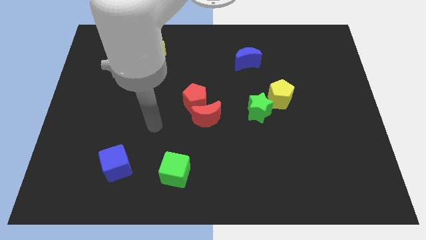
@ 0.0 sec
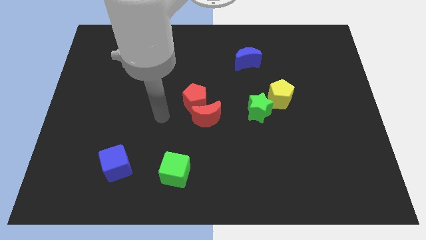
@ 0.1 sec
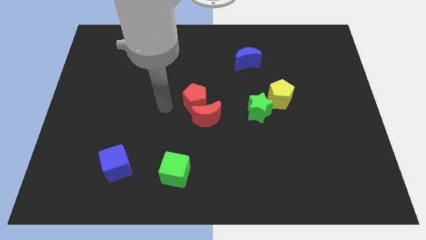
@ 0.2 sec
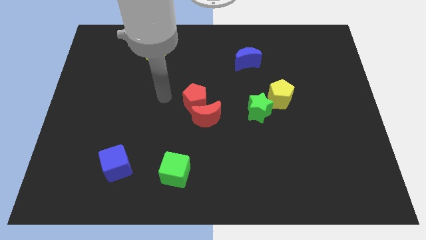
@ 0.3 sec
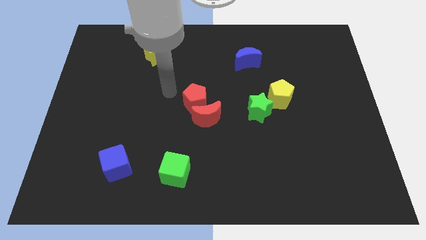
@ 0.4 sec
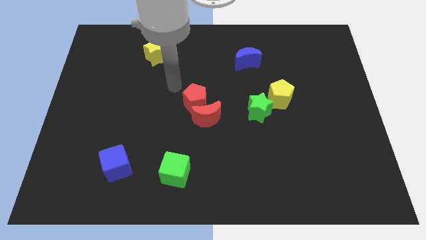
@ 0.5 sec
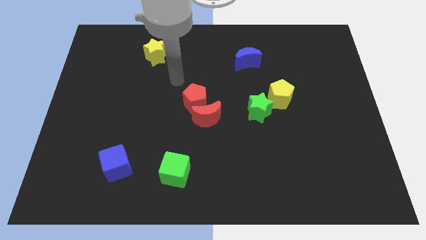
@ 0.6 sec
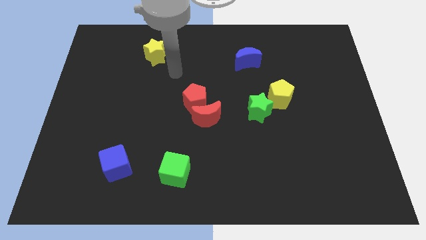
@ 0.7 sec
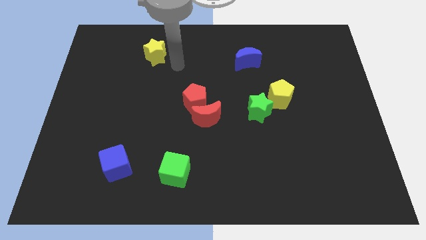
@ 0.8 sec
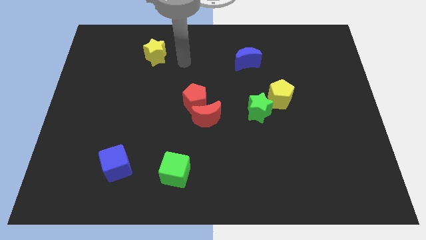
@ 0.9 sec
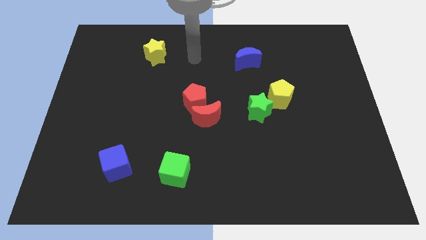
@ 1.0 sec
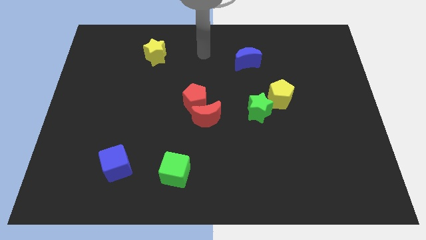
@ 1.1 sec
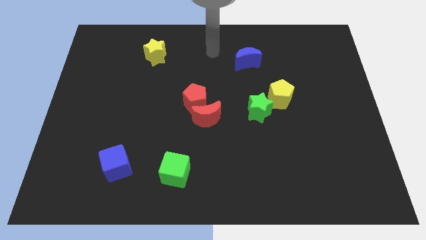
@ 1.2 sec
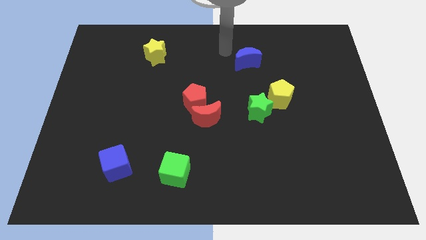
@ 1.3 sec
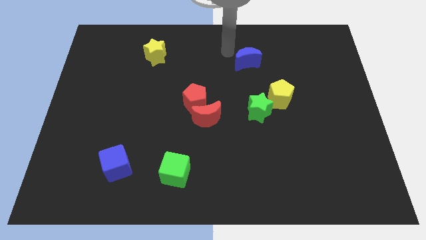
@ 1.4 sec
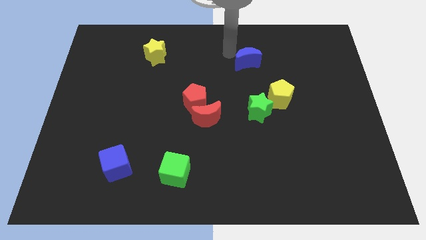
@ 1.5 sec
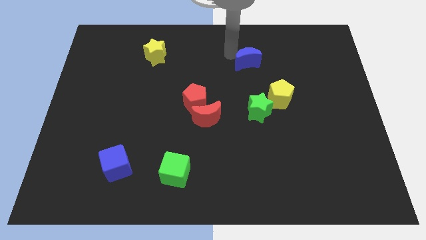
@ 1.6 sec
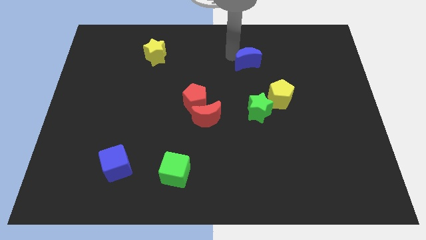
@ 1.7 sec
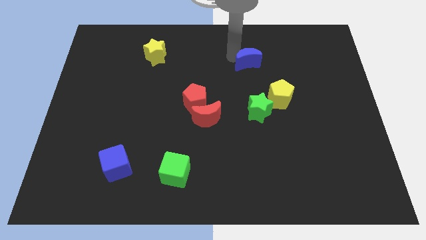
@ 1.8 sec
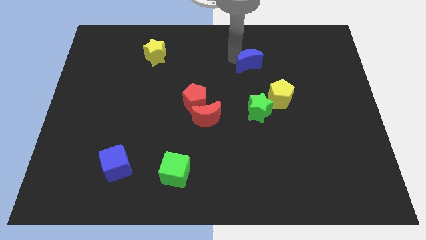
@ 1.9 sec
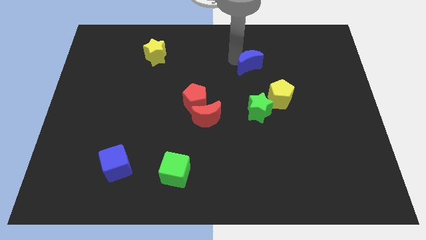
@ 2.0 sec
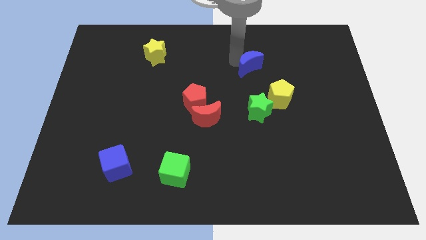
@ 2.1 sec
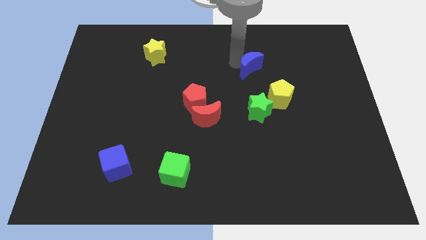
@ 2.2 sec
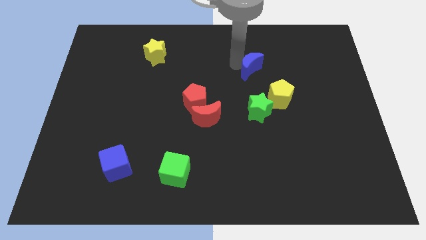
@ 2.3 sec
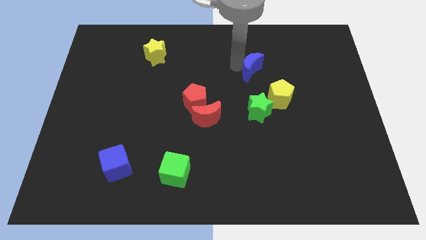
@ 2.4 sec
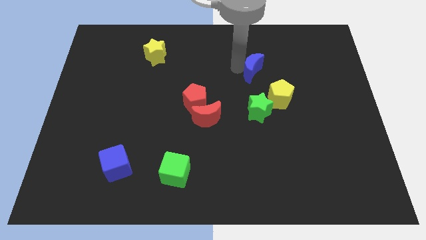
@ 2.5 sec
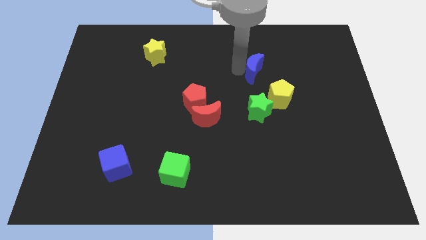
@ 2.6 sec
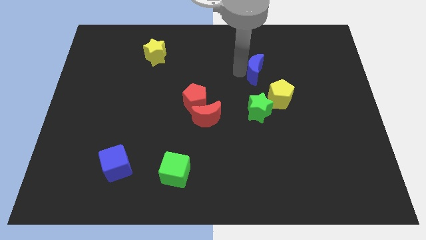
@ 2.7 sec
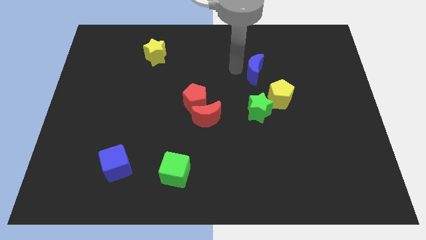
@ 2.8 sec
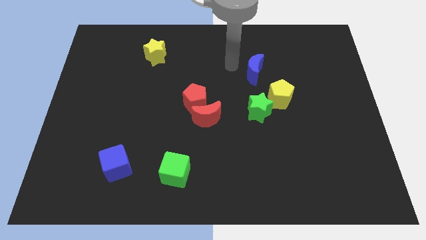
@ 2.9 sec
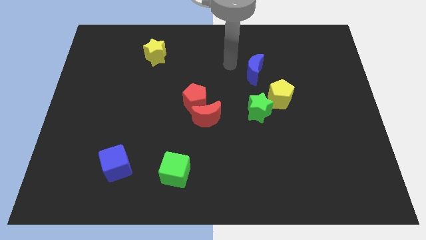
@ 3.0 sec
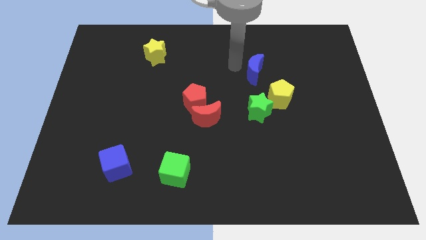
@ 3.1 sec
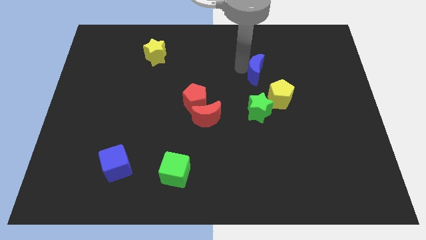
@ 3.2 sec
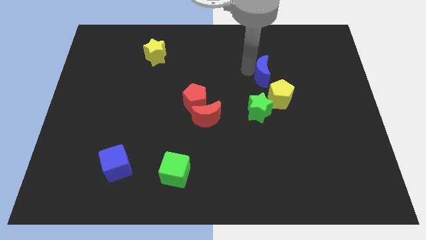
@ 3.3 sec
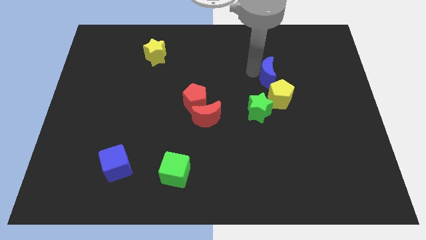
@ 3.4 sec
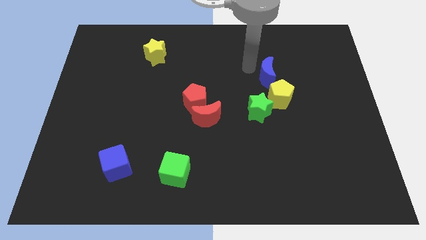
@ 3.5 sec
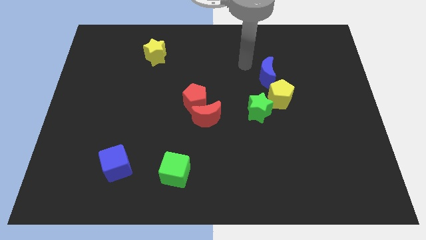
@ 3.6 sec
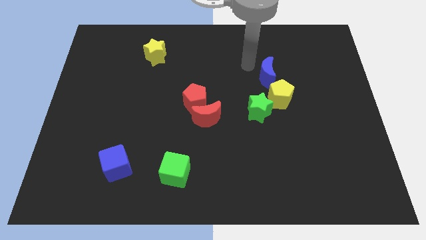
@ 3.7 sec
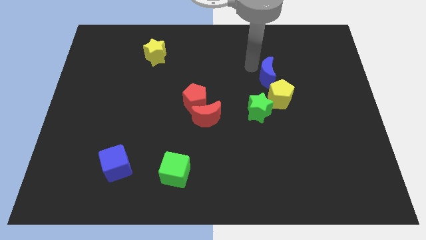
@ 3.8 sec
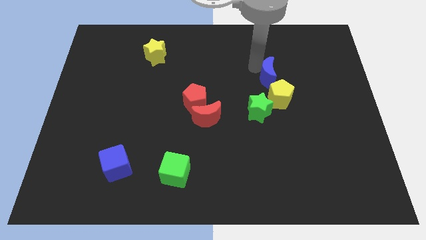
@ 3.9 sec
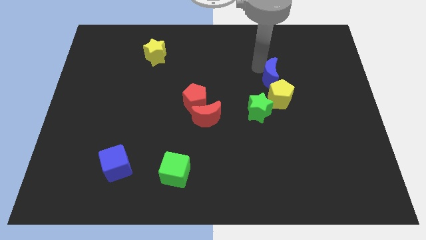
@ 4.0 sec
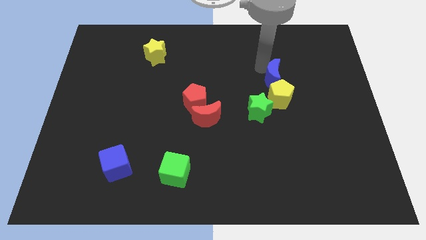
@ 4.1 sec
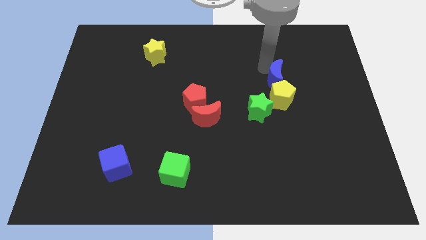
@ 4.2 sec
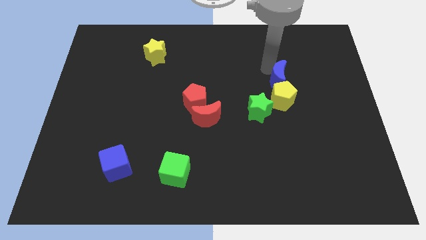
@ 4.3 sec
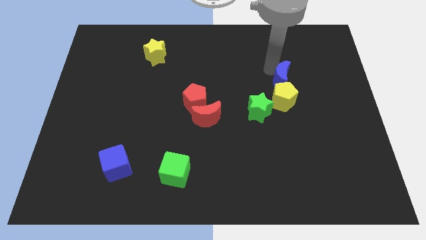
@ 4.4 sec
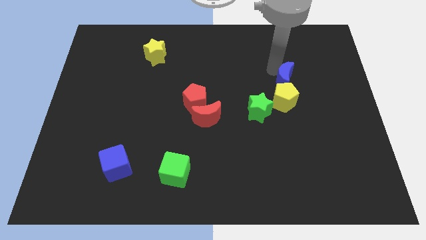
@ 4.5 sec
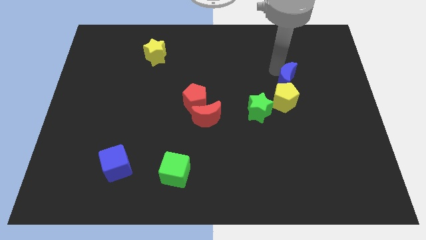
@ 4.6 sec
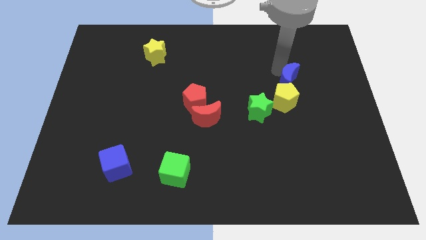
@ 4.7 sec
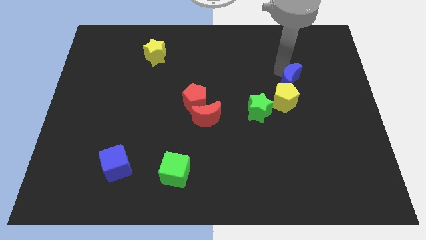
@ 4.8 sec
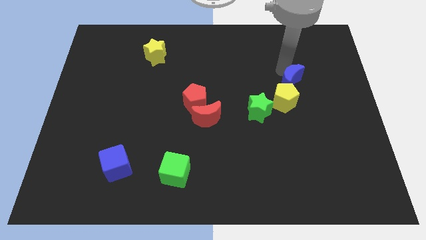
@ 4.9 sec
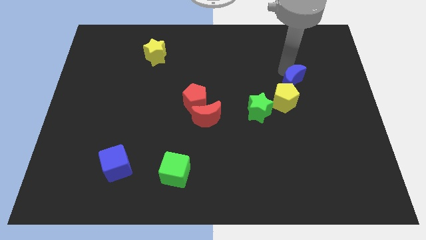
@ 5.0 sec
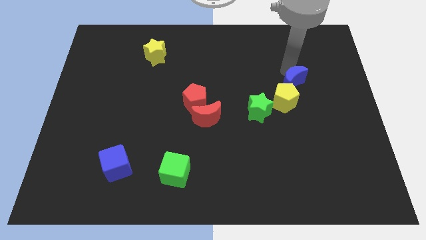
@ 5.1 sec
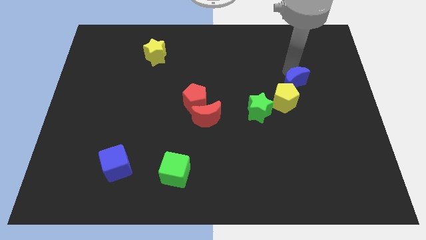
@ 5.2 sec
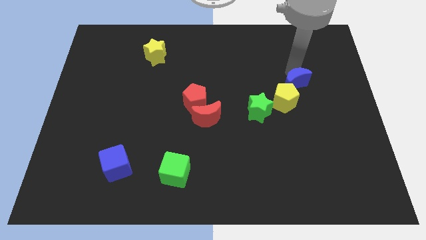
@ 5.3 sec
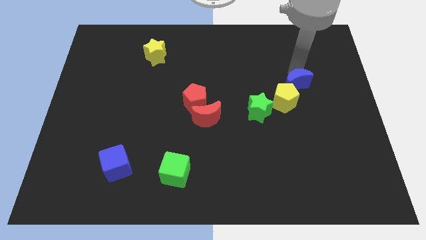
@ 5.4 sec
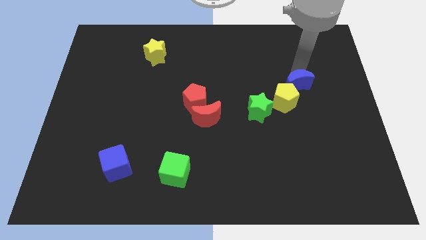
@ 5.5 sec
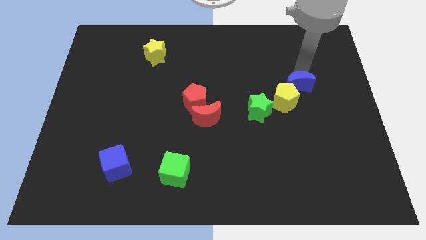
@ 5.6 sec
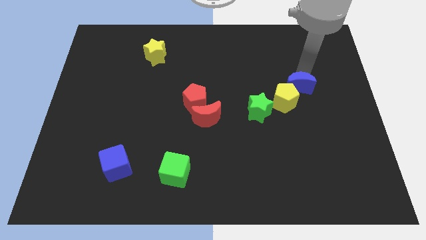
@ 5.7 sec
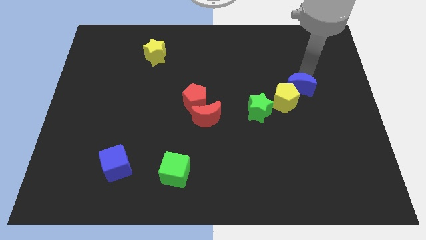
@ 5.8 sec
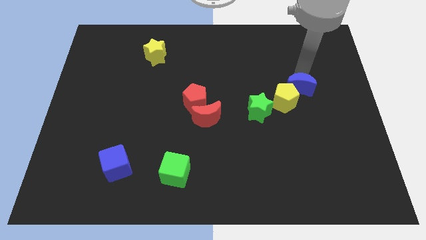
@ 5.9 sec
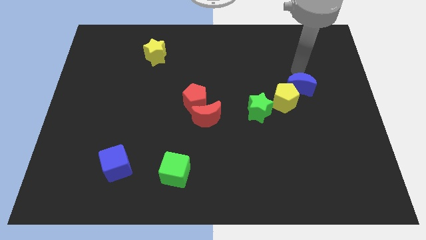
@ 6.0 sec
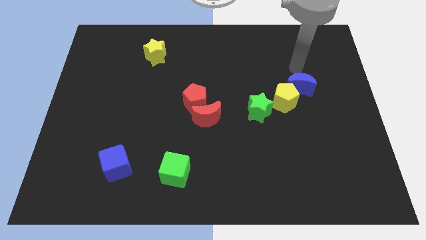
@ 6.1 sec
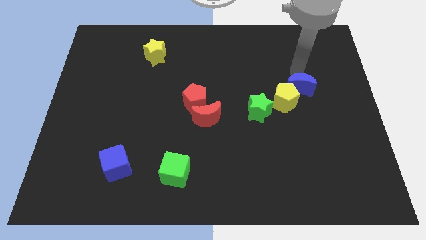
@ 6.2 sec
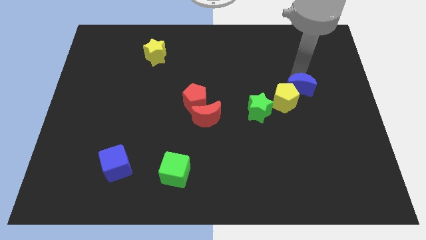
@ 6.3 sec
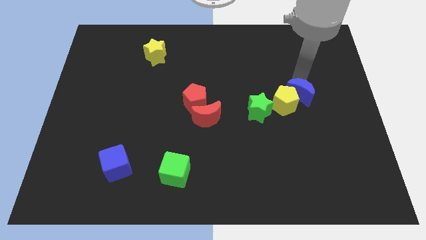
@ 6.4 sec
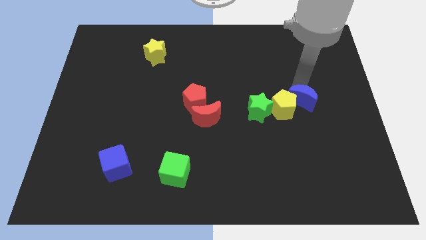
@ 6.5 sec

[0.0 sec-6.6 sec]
move the blue moon just right of the green star

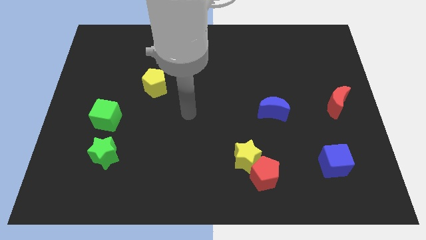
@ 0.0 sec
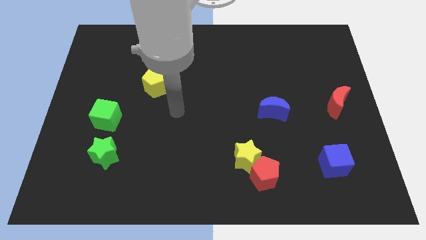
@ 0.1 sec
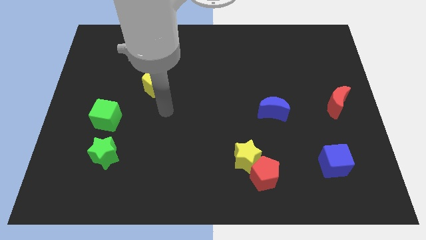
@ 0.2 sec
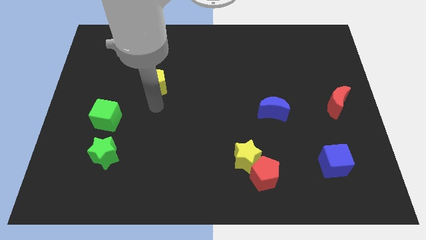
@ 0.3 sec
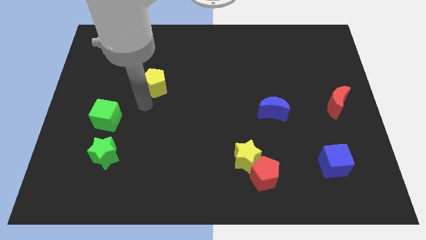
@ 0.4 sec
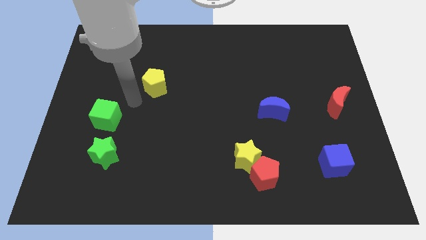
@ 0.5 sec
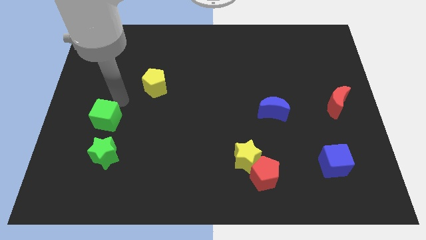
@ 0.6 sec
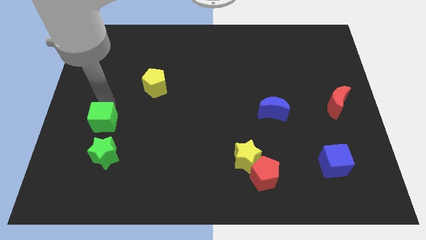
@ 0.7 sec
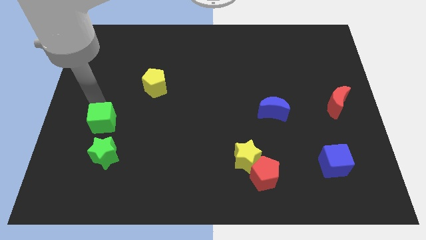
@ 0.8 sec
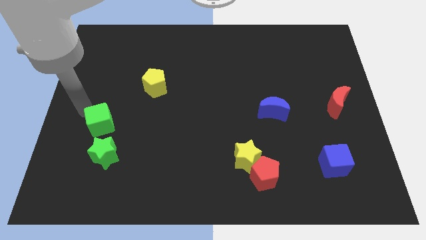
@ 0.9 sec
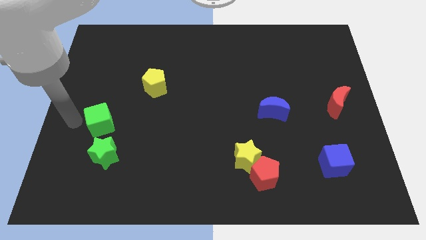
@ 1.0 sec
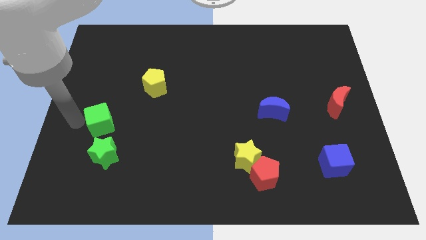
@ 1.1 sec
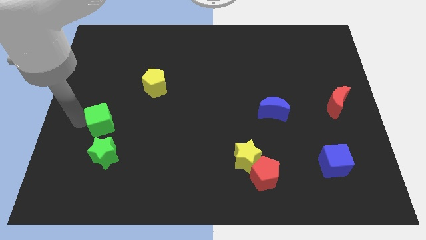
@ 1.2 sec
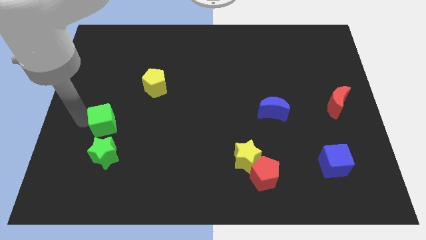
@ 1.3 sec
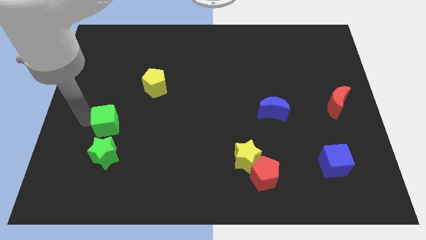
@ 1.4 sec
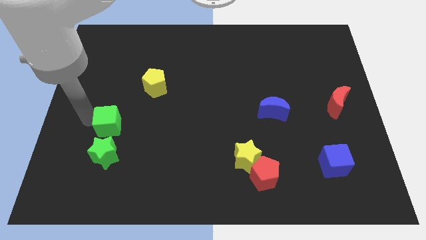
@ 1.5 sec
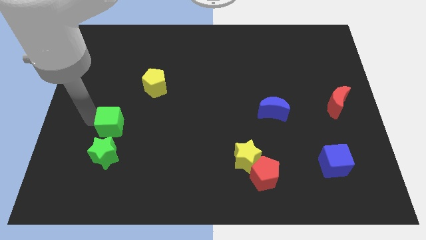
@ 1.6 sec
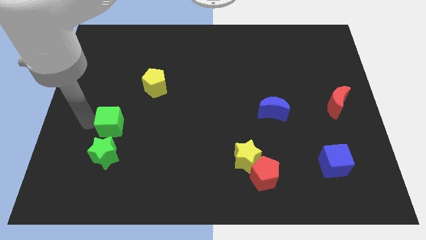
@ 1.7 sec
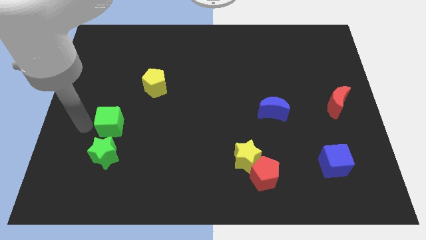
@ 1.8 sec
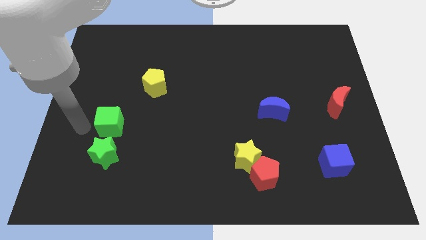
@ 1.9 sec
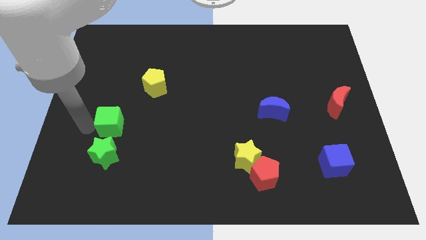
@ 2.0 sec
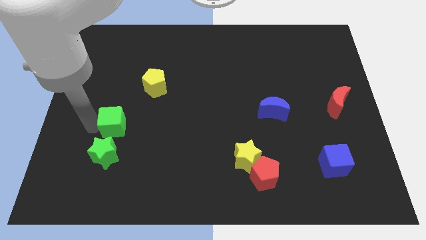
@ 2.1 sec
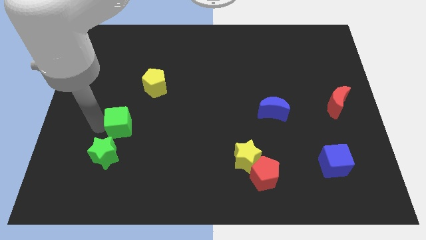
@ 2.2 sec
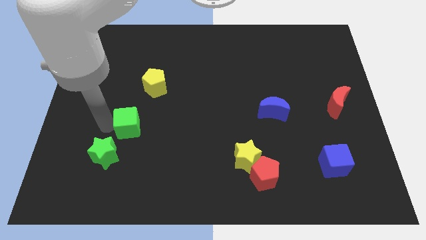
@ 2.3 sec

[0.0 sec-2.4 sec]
push the green cube to the bottom side of the yellow pentagon
